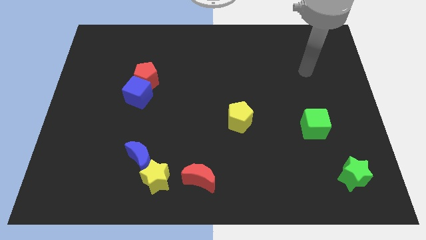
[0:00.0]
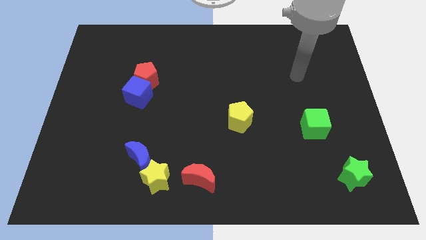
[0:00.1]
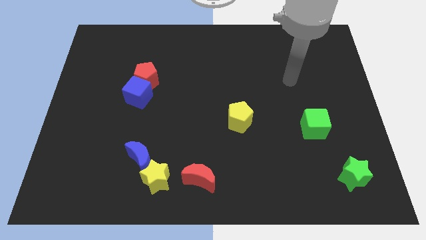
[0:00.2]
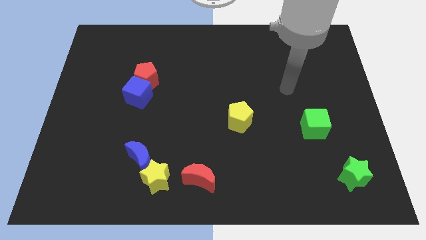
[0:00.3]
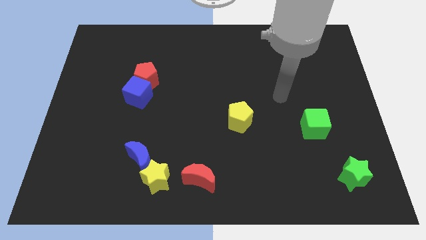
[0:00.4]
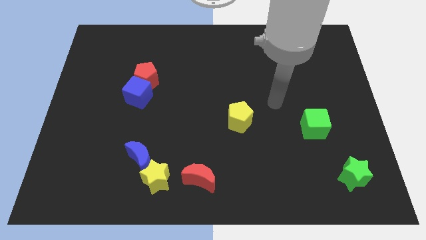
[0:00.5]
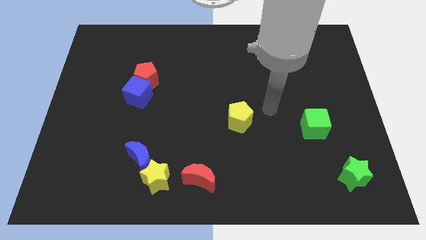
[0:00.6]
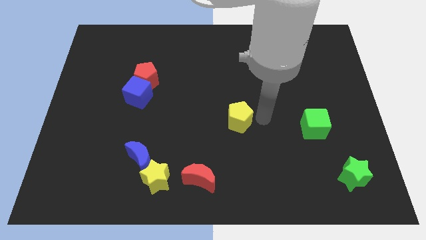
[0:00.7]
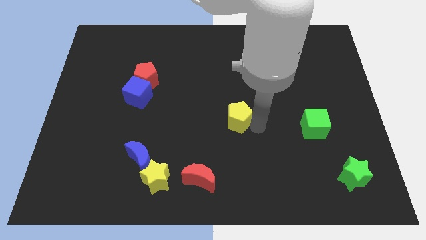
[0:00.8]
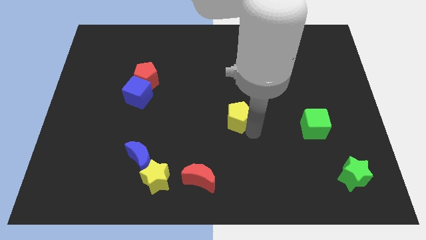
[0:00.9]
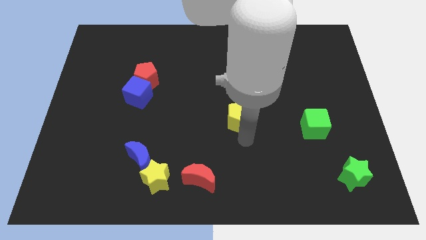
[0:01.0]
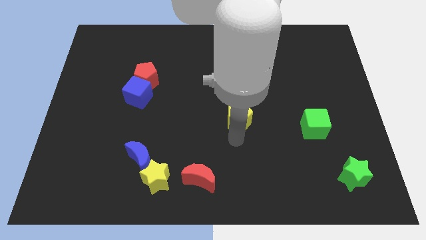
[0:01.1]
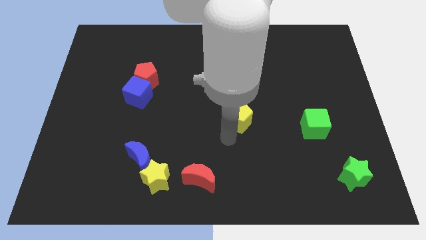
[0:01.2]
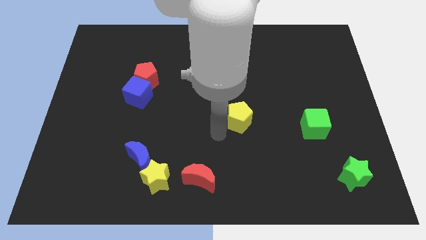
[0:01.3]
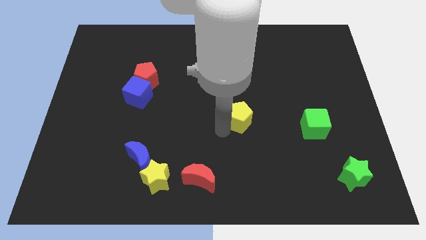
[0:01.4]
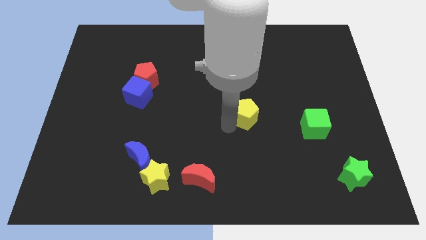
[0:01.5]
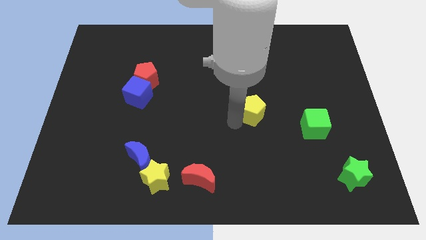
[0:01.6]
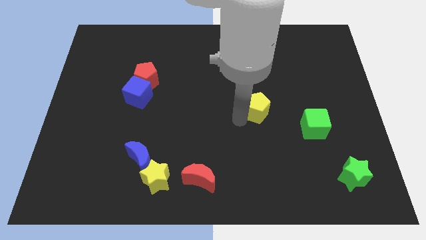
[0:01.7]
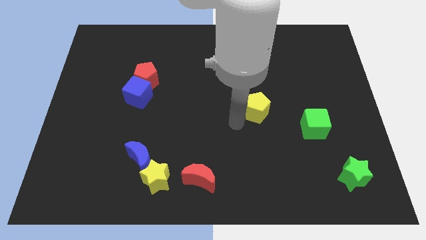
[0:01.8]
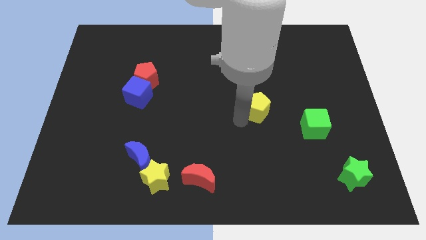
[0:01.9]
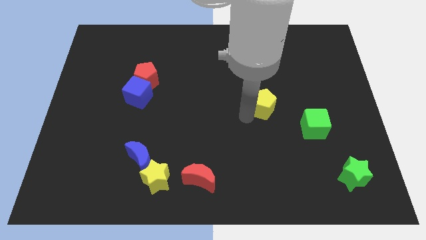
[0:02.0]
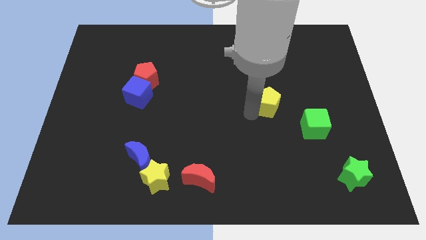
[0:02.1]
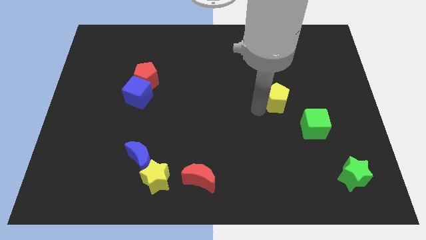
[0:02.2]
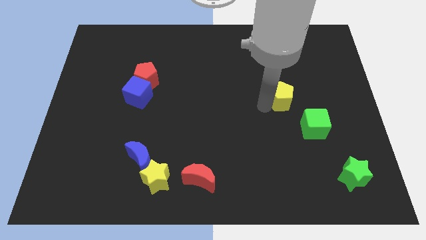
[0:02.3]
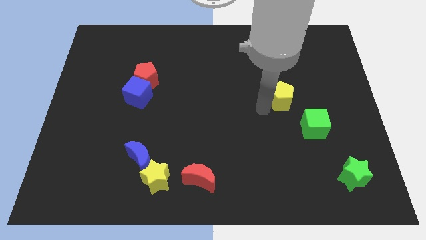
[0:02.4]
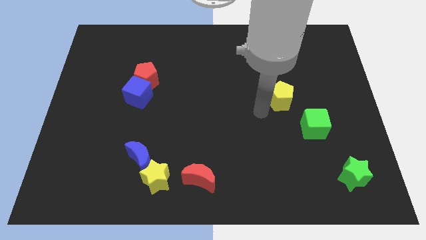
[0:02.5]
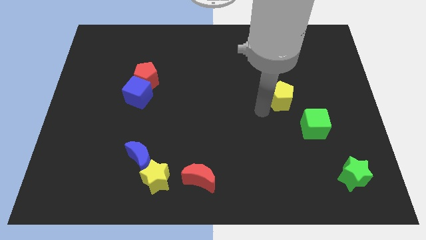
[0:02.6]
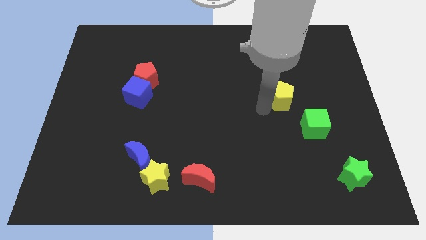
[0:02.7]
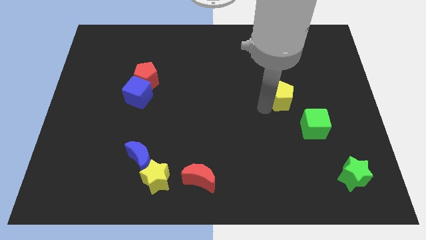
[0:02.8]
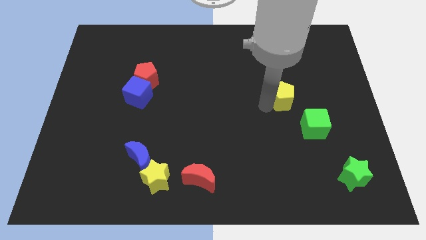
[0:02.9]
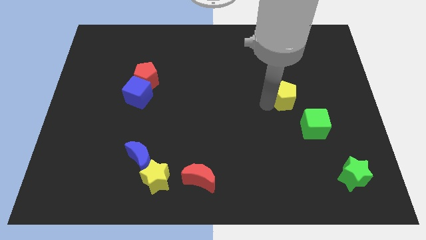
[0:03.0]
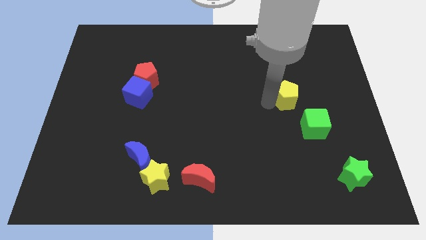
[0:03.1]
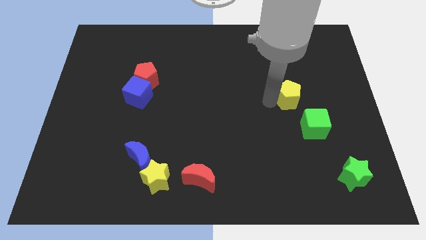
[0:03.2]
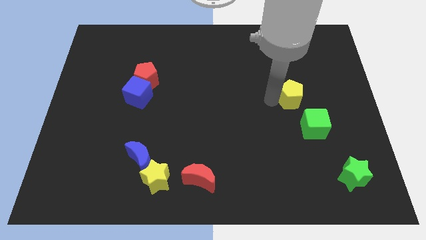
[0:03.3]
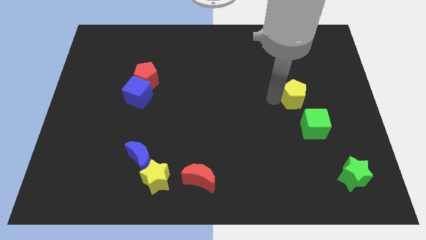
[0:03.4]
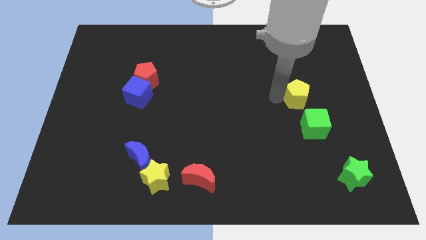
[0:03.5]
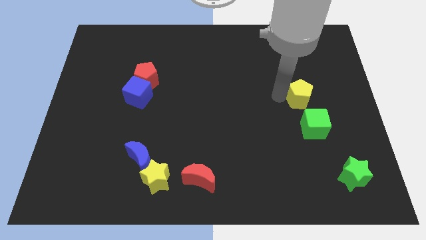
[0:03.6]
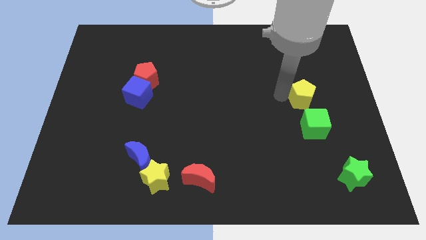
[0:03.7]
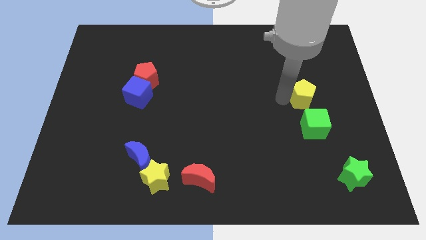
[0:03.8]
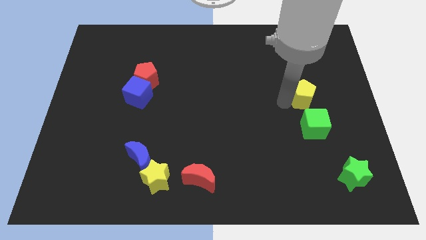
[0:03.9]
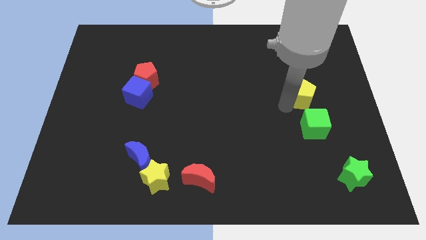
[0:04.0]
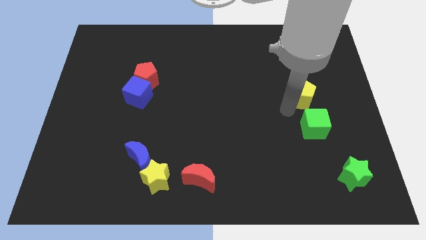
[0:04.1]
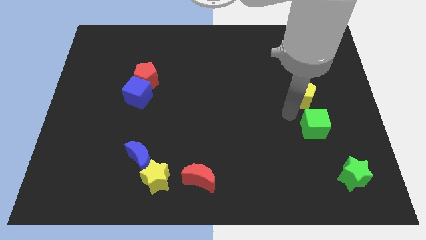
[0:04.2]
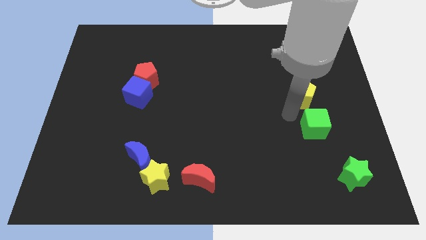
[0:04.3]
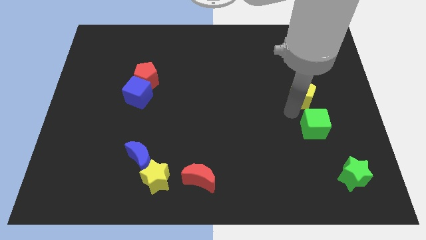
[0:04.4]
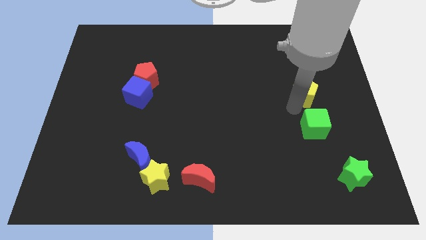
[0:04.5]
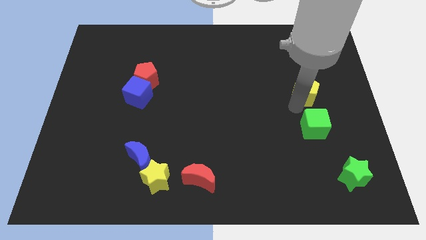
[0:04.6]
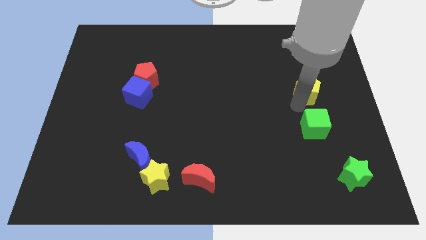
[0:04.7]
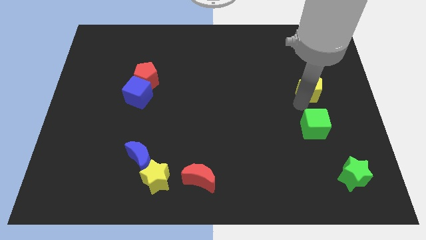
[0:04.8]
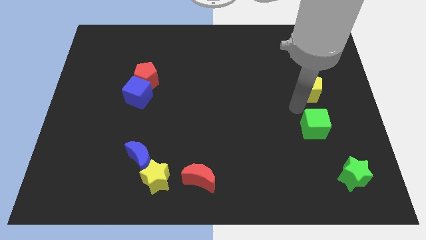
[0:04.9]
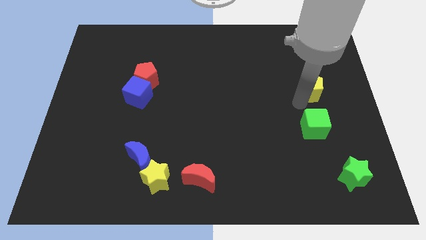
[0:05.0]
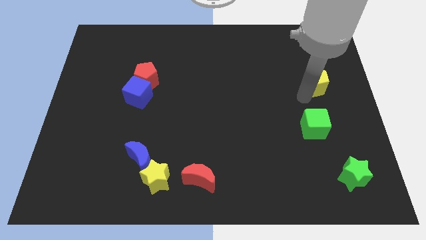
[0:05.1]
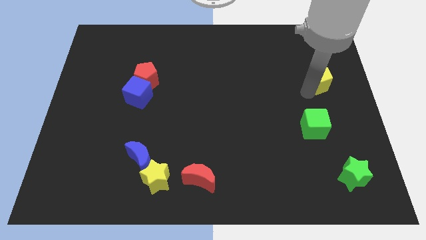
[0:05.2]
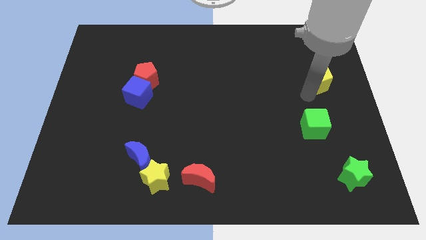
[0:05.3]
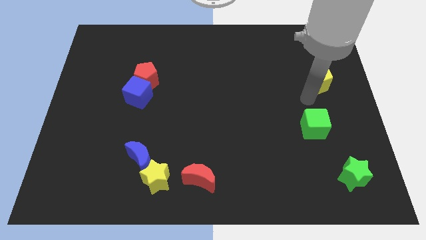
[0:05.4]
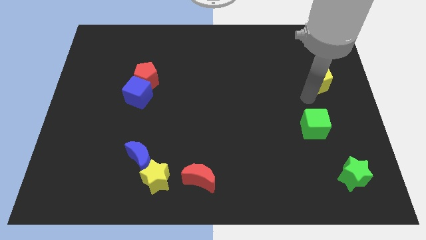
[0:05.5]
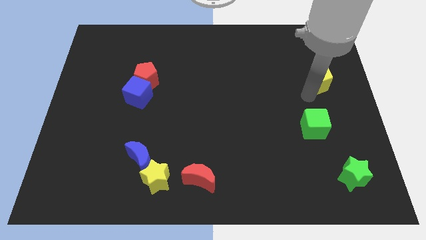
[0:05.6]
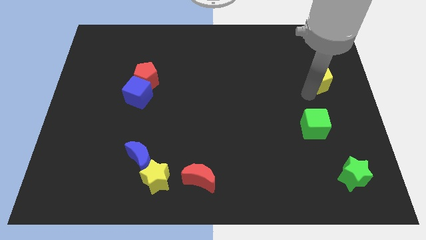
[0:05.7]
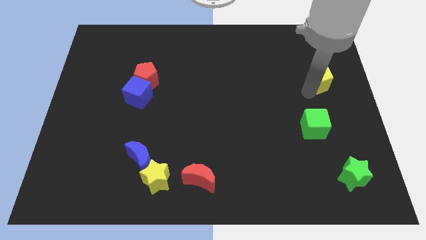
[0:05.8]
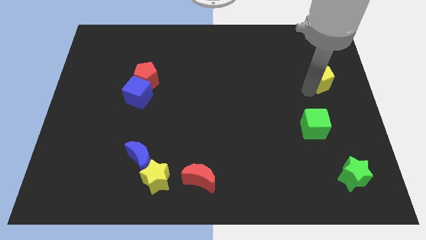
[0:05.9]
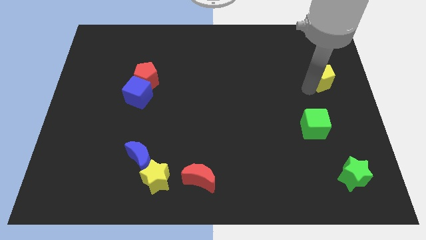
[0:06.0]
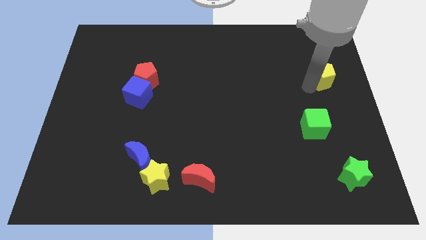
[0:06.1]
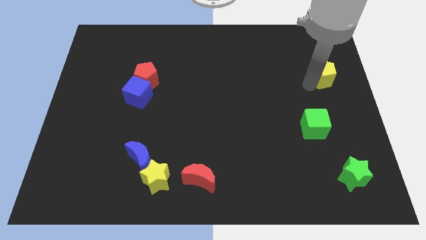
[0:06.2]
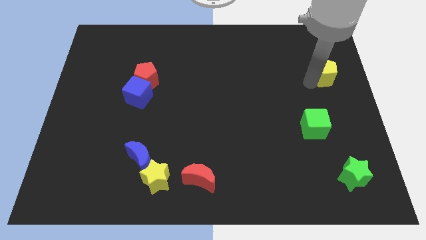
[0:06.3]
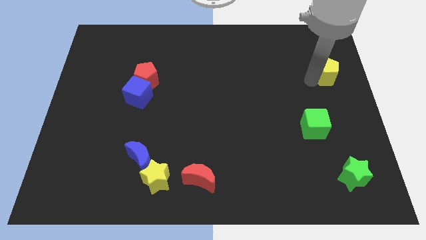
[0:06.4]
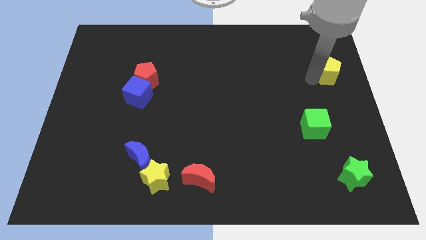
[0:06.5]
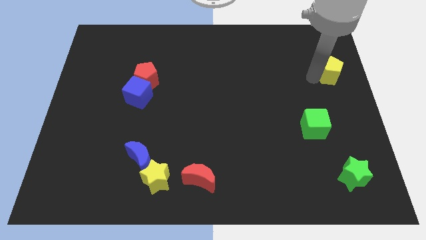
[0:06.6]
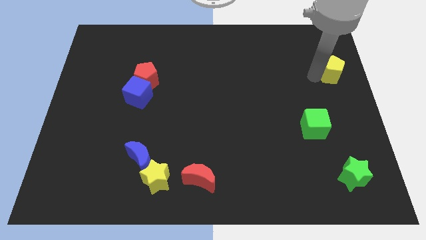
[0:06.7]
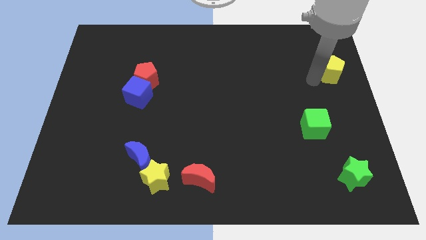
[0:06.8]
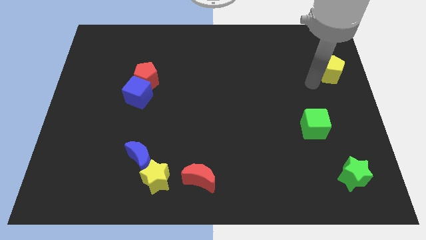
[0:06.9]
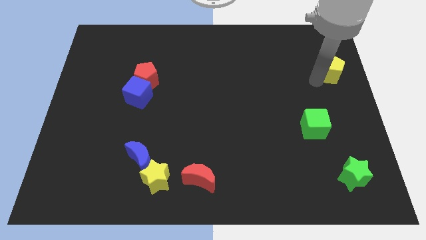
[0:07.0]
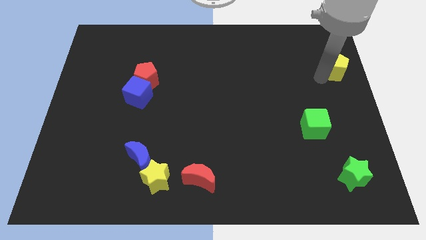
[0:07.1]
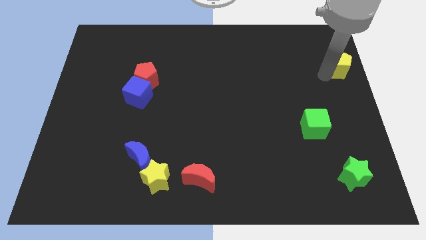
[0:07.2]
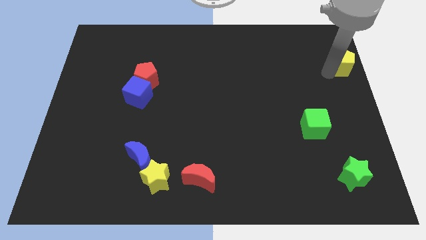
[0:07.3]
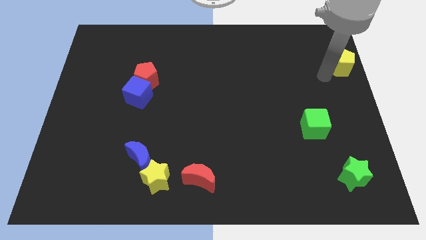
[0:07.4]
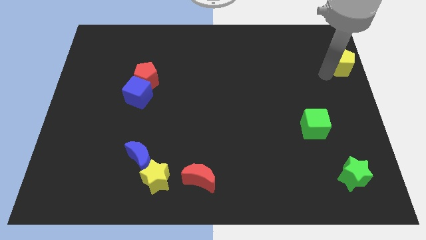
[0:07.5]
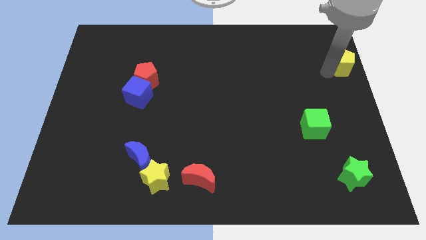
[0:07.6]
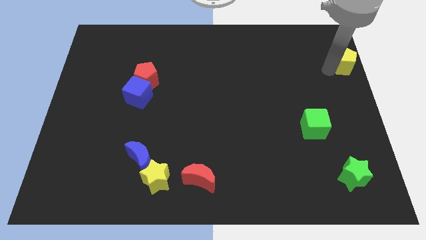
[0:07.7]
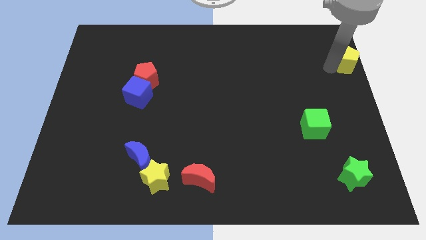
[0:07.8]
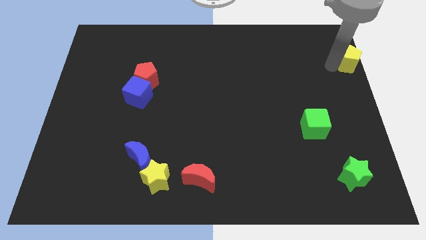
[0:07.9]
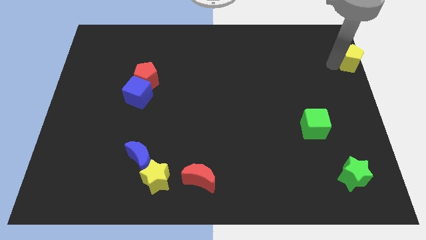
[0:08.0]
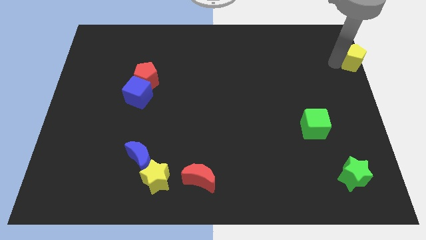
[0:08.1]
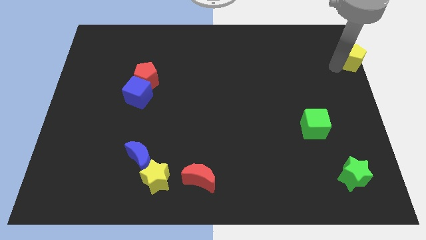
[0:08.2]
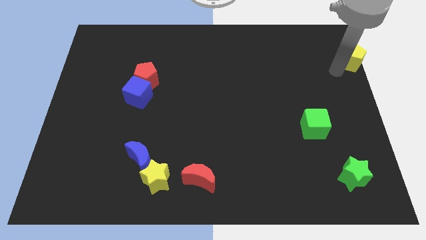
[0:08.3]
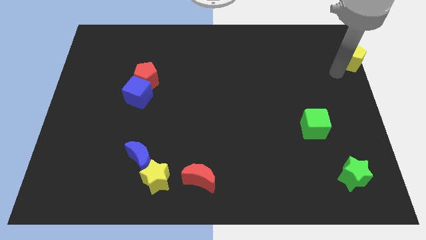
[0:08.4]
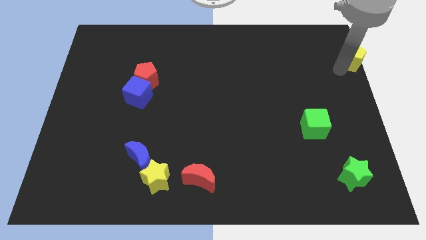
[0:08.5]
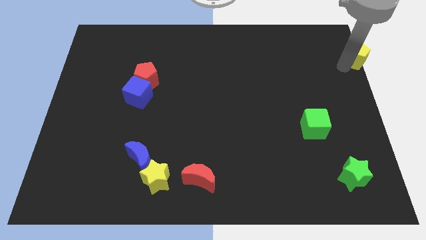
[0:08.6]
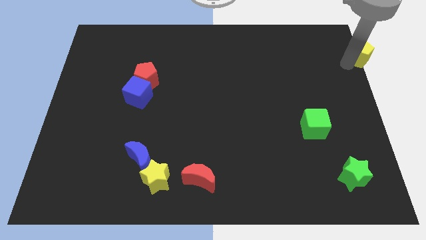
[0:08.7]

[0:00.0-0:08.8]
move the yellow pentagon to the upper right corner
